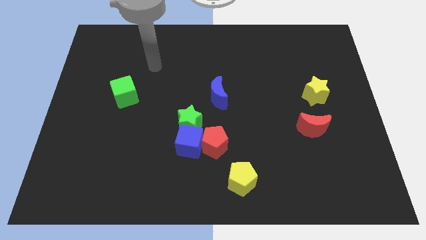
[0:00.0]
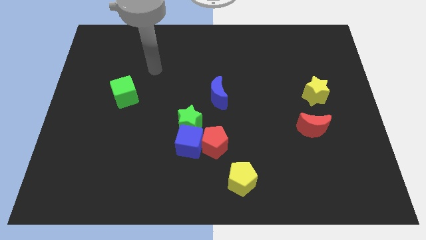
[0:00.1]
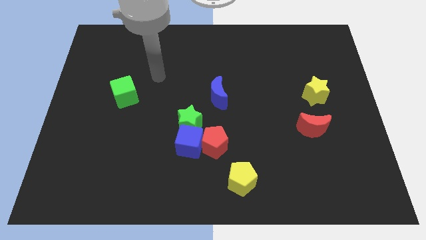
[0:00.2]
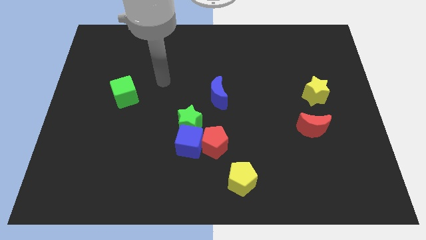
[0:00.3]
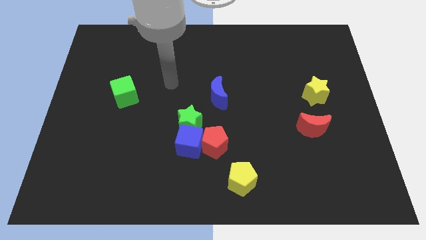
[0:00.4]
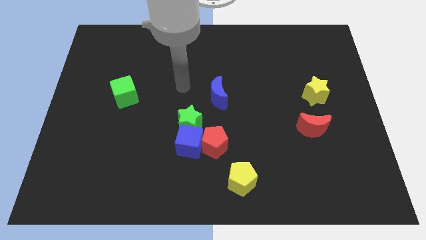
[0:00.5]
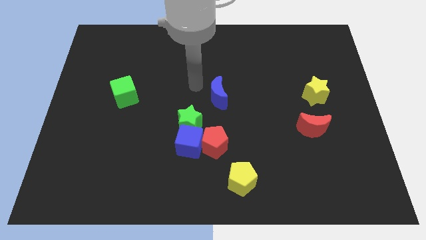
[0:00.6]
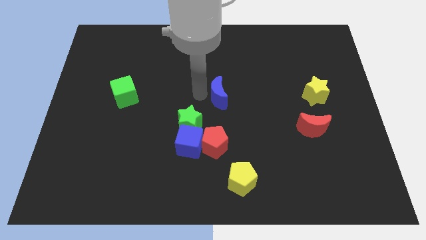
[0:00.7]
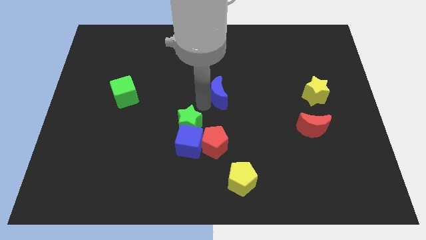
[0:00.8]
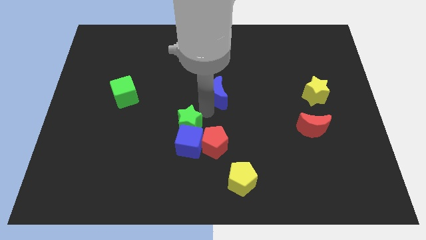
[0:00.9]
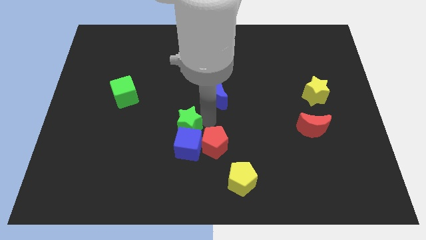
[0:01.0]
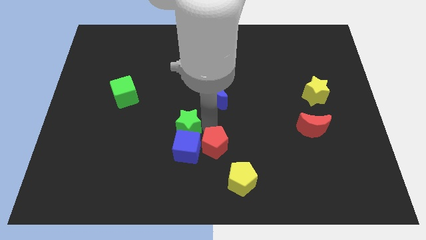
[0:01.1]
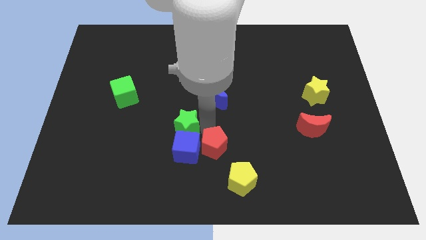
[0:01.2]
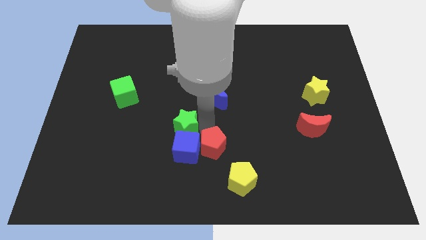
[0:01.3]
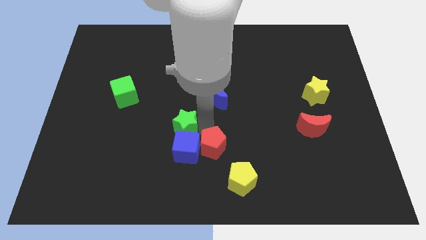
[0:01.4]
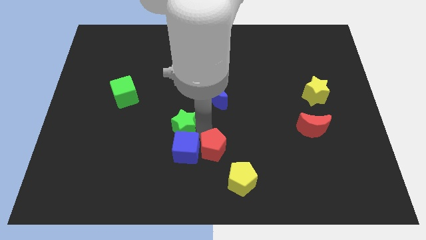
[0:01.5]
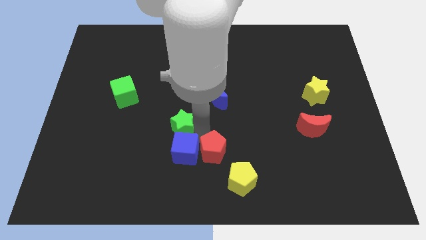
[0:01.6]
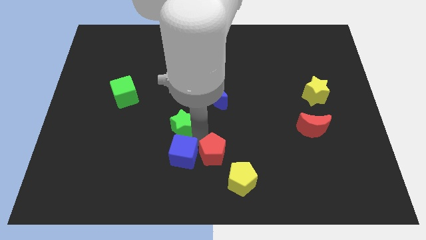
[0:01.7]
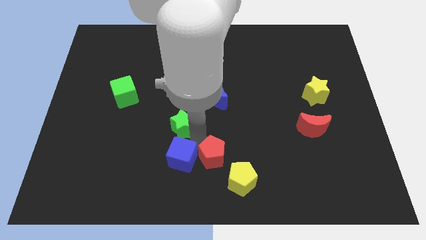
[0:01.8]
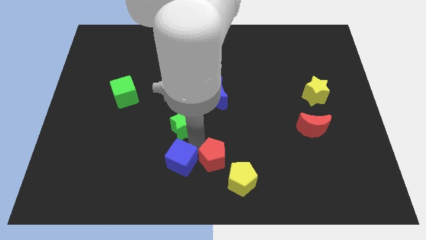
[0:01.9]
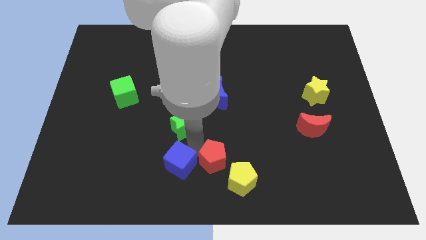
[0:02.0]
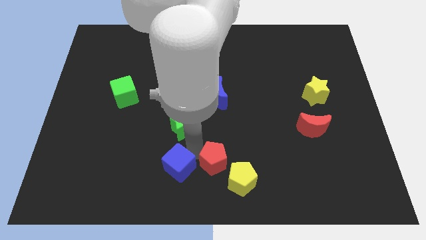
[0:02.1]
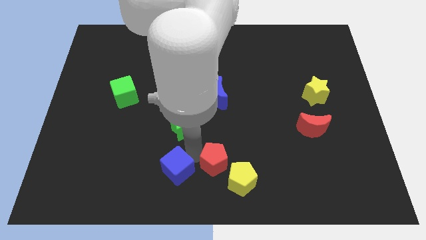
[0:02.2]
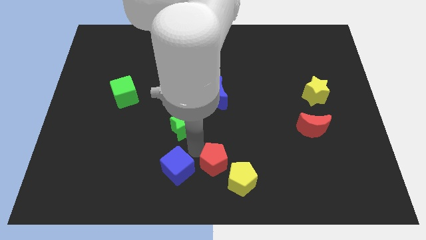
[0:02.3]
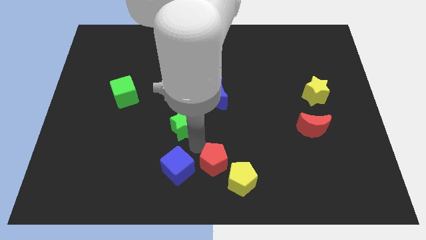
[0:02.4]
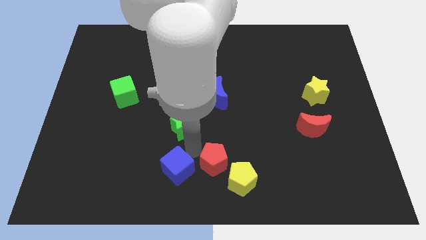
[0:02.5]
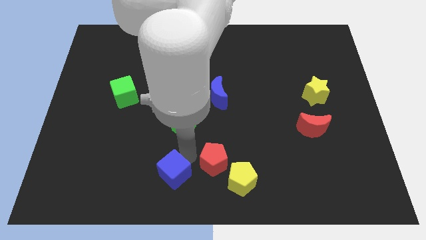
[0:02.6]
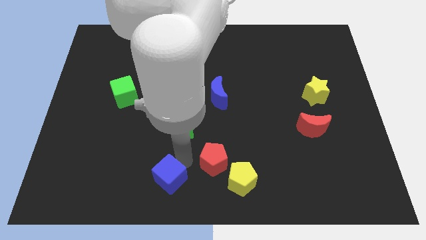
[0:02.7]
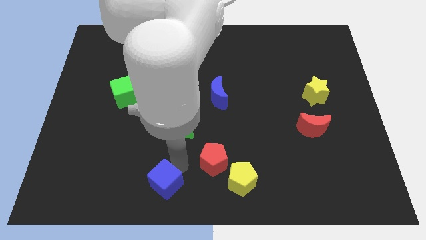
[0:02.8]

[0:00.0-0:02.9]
move the blue cube away from the red pentagon and green star

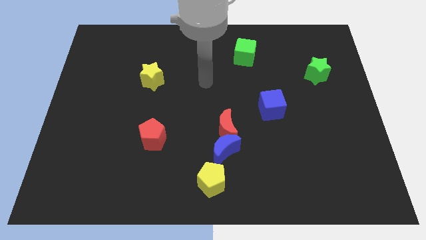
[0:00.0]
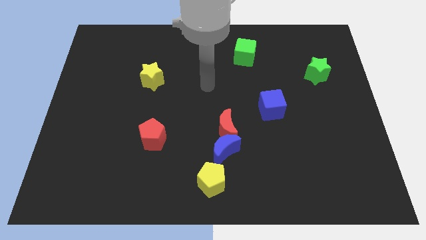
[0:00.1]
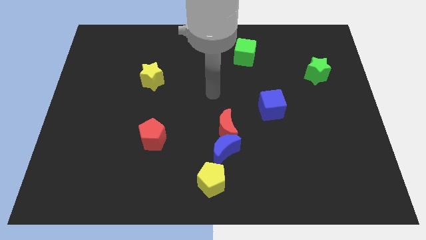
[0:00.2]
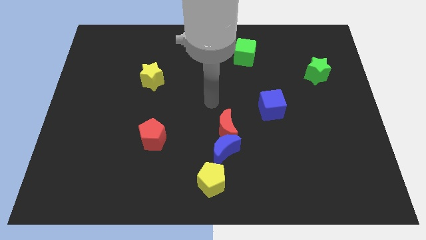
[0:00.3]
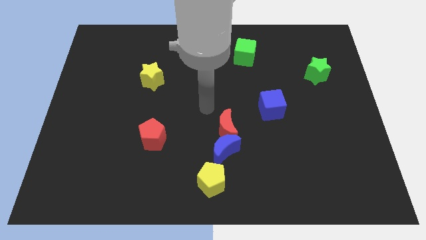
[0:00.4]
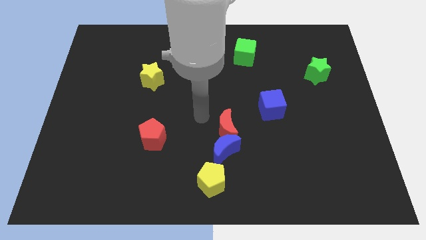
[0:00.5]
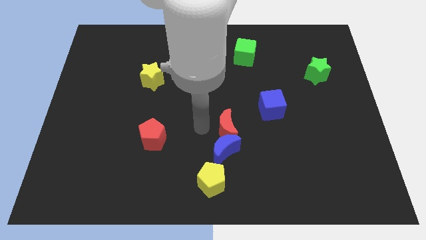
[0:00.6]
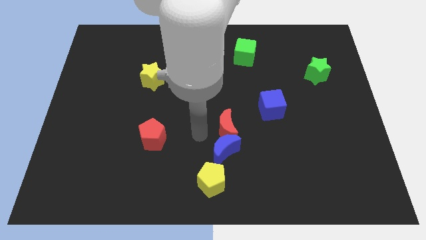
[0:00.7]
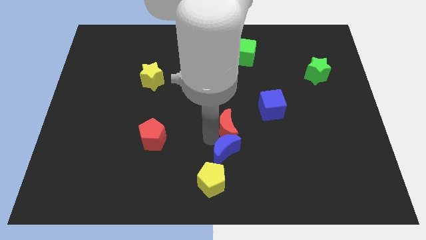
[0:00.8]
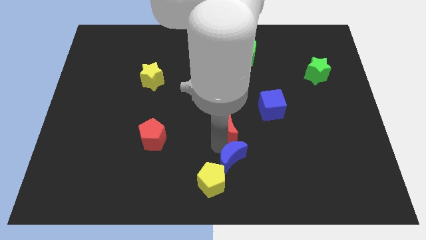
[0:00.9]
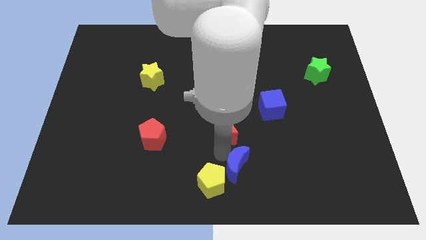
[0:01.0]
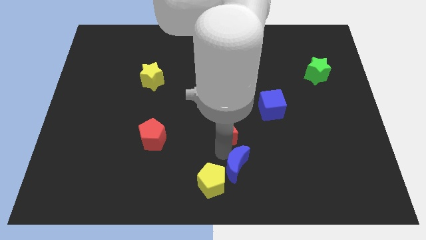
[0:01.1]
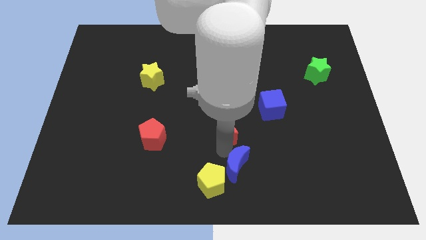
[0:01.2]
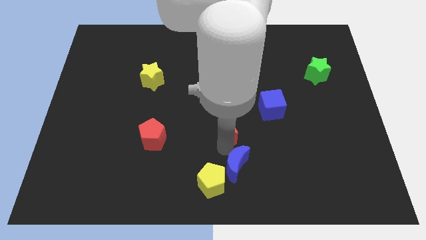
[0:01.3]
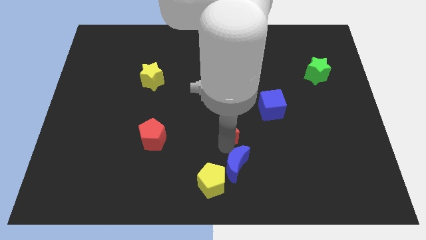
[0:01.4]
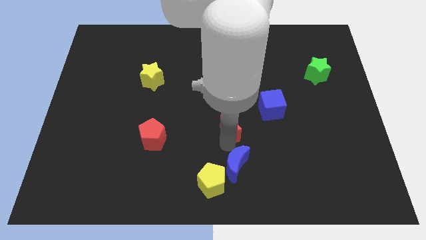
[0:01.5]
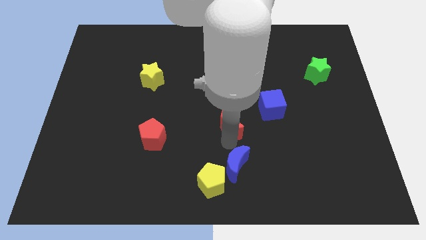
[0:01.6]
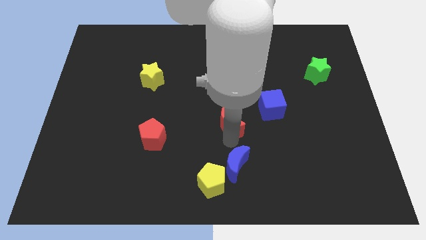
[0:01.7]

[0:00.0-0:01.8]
move the red moon away from the blue moon

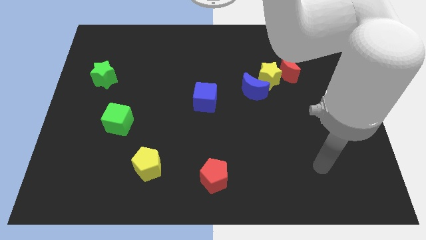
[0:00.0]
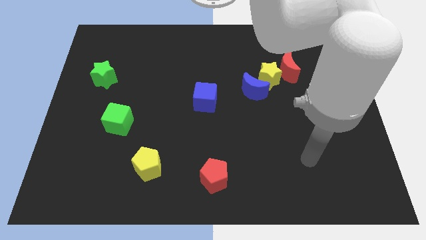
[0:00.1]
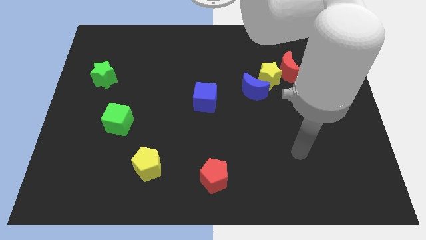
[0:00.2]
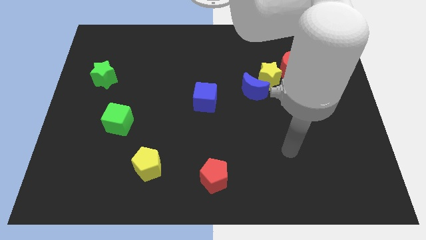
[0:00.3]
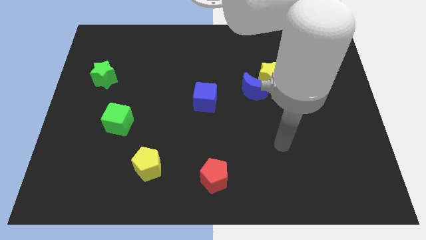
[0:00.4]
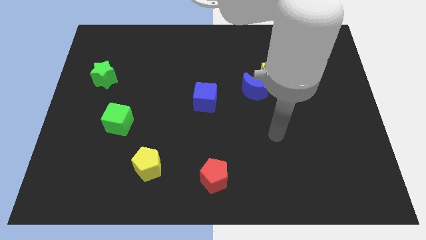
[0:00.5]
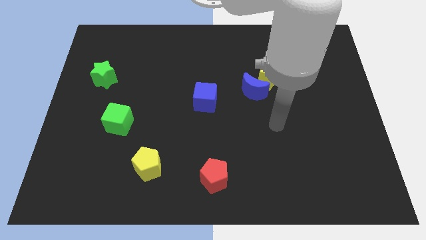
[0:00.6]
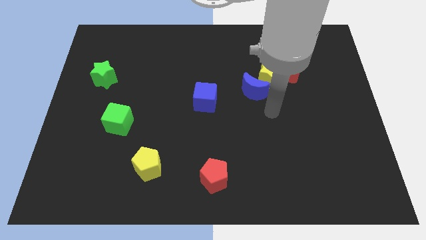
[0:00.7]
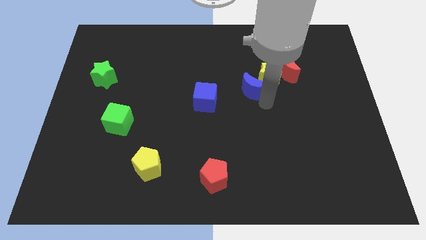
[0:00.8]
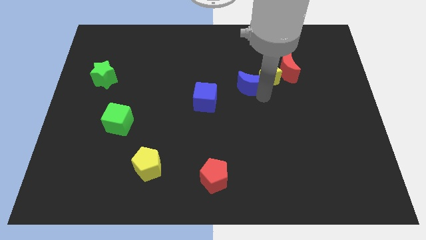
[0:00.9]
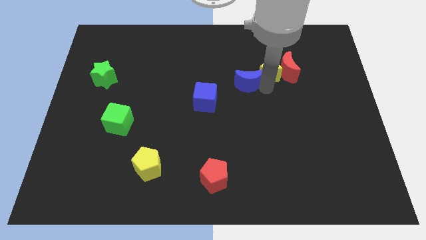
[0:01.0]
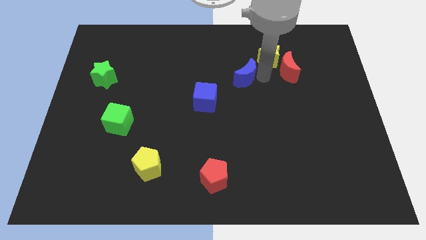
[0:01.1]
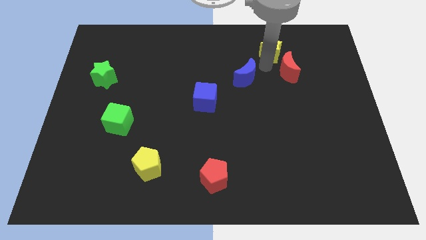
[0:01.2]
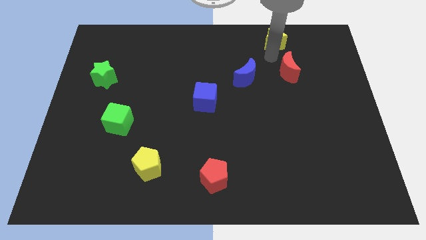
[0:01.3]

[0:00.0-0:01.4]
separate the red moon from the yellow star

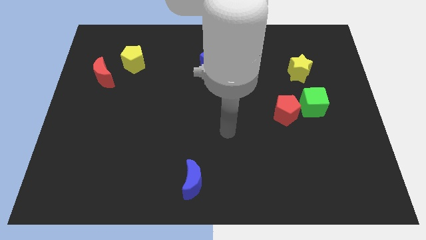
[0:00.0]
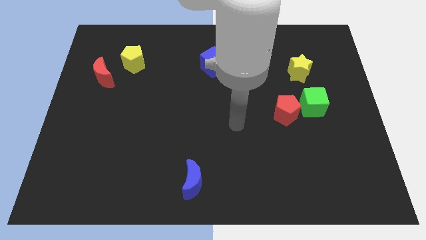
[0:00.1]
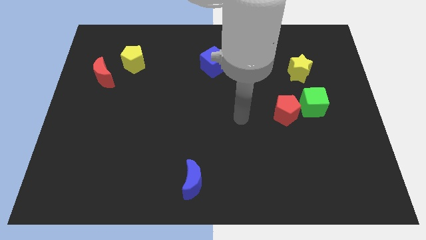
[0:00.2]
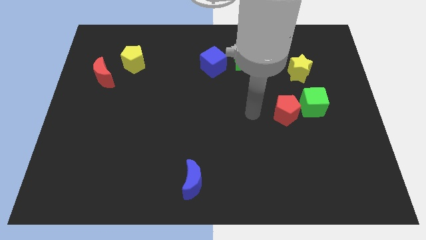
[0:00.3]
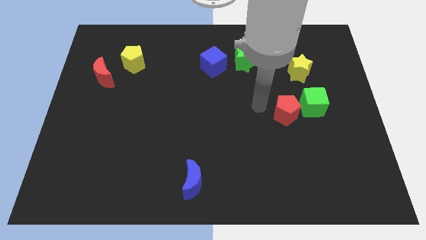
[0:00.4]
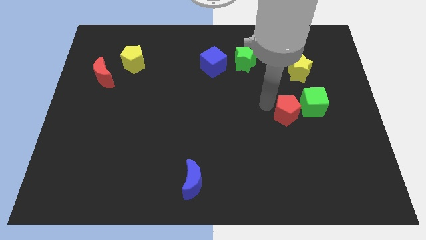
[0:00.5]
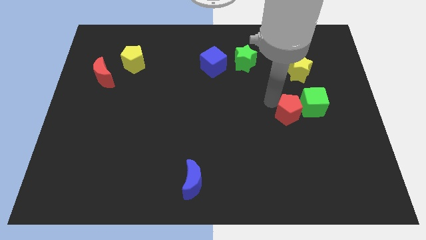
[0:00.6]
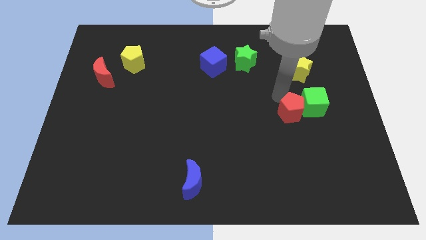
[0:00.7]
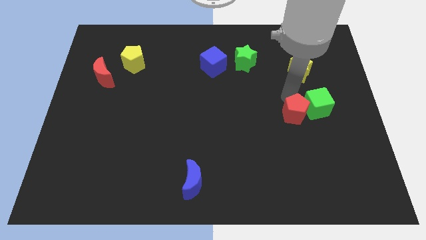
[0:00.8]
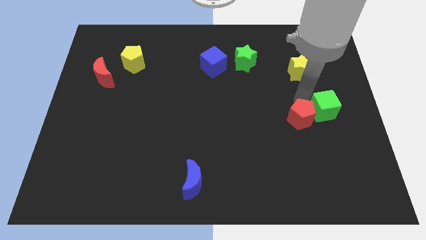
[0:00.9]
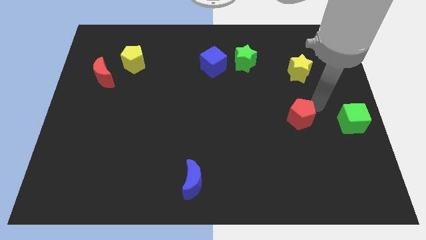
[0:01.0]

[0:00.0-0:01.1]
move the red pentagon away from the green cube

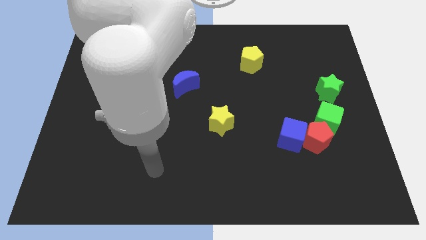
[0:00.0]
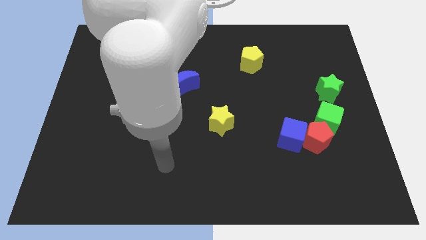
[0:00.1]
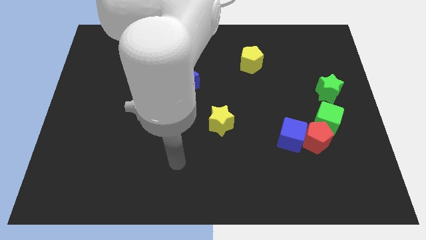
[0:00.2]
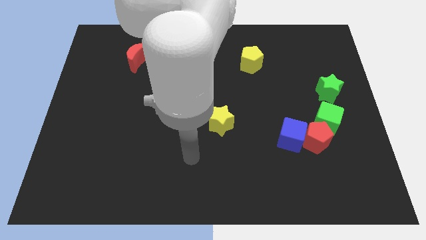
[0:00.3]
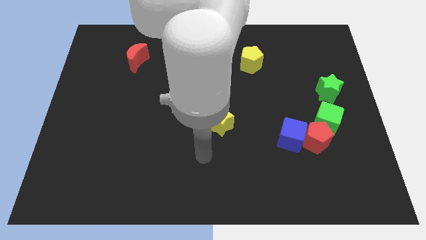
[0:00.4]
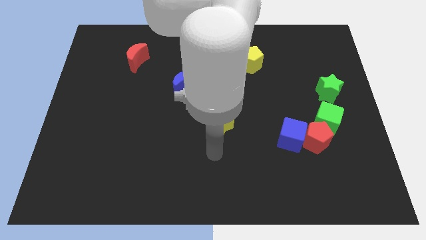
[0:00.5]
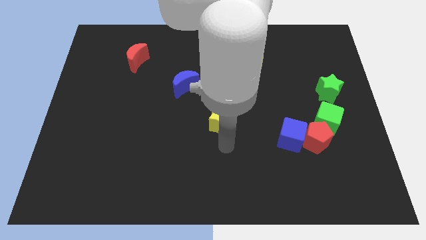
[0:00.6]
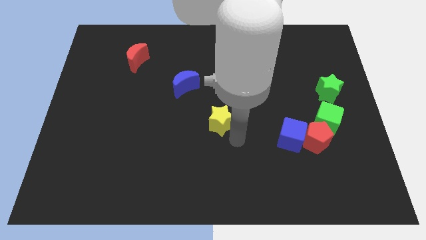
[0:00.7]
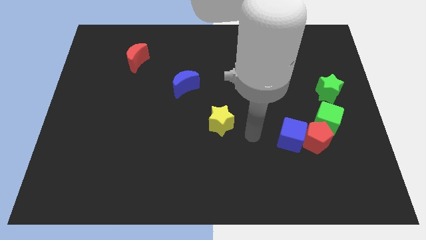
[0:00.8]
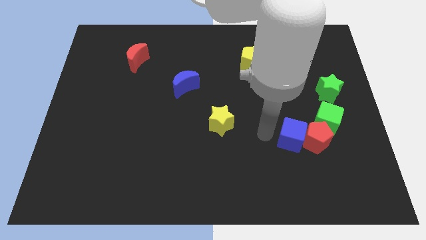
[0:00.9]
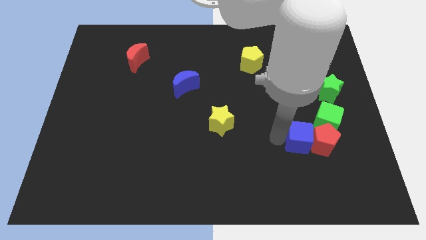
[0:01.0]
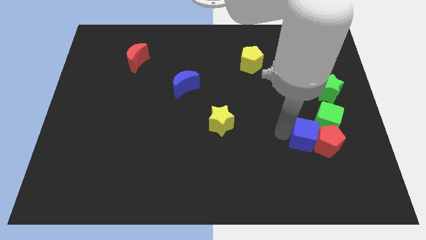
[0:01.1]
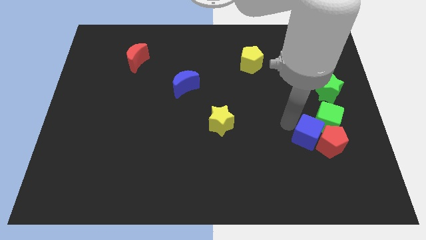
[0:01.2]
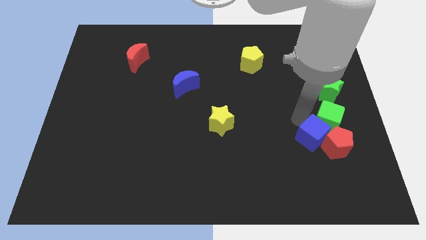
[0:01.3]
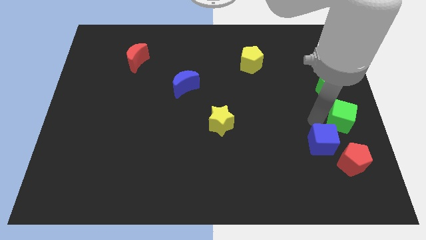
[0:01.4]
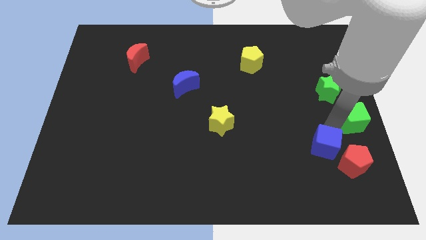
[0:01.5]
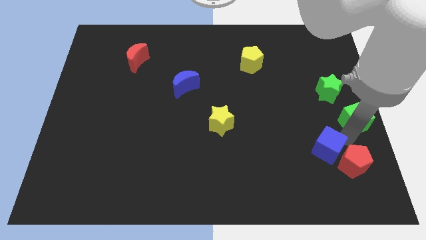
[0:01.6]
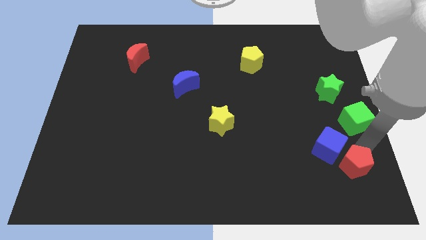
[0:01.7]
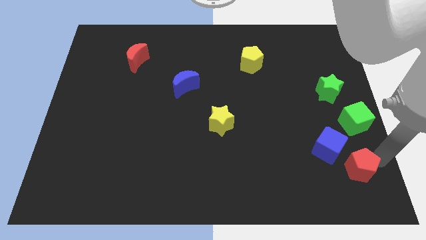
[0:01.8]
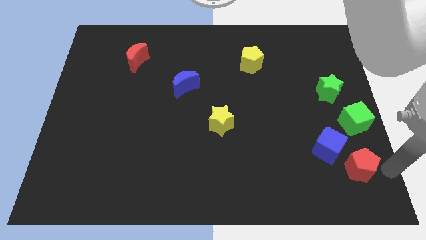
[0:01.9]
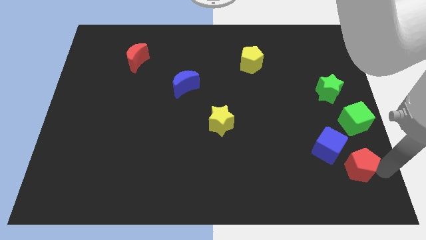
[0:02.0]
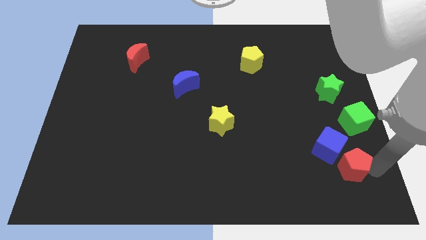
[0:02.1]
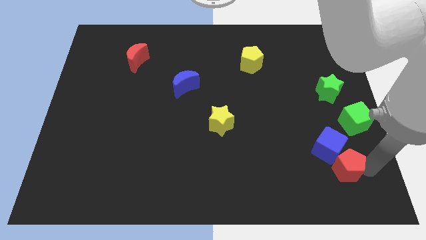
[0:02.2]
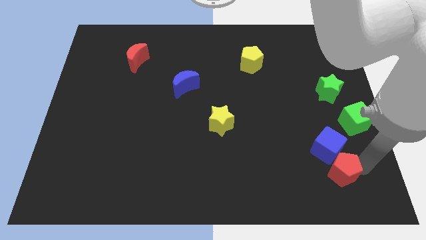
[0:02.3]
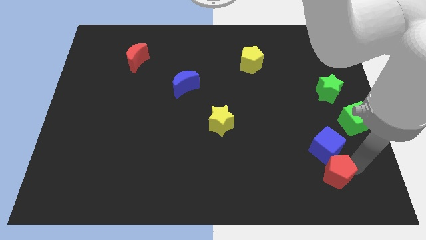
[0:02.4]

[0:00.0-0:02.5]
move the red pentagon away from the blue cube and green cube
